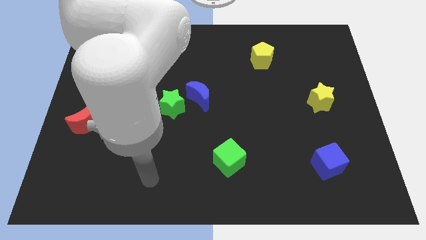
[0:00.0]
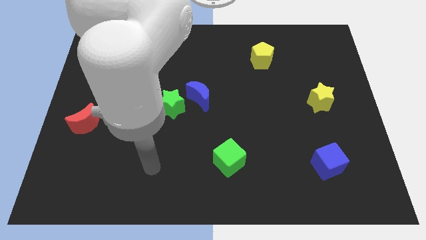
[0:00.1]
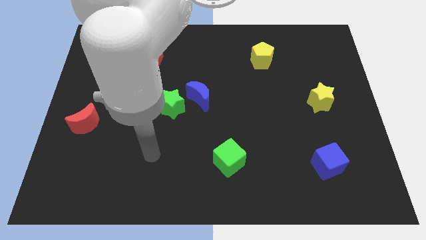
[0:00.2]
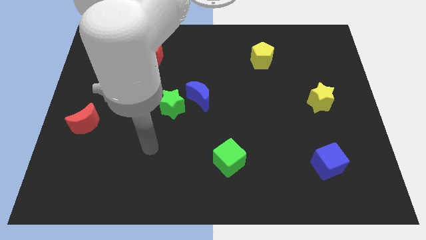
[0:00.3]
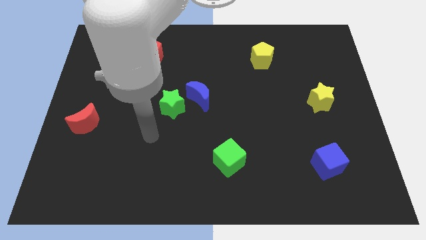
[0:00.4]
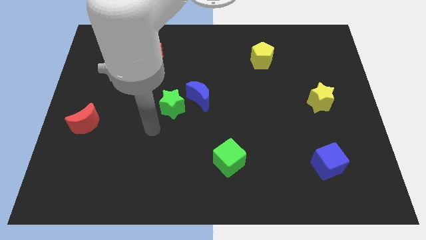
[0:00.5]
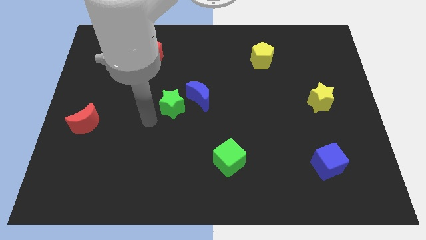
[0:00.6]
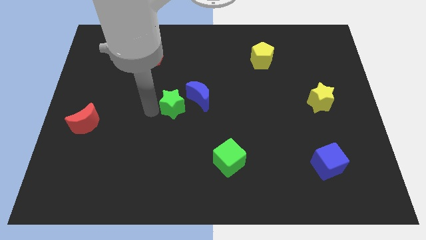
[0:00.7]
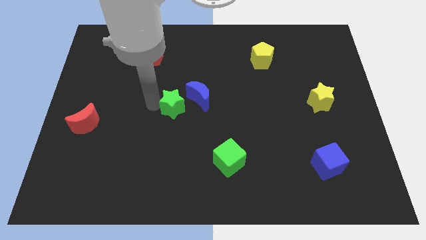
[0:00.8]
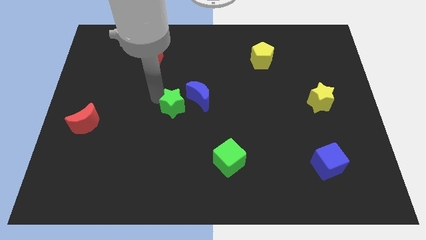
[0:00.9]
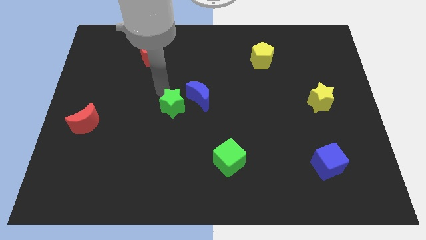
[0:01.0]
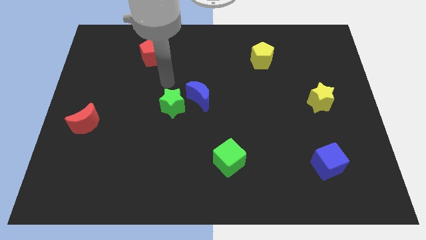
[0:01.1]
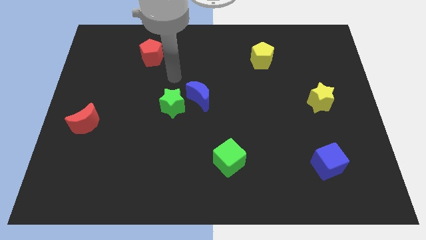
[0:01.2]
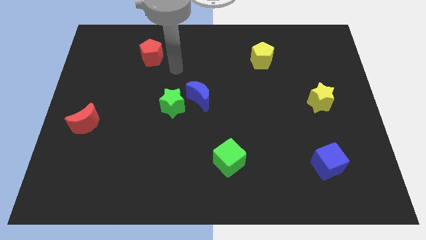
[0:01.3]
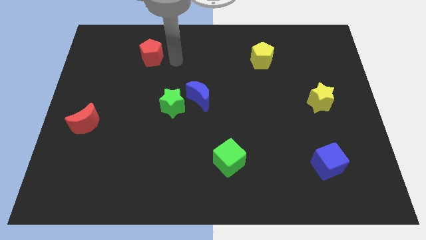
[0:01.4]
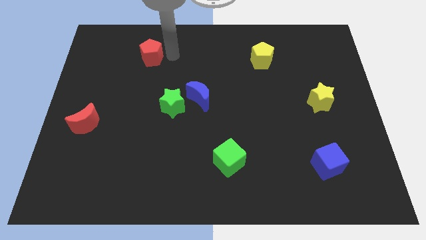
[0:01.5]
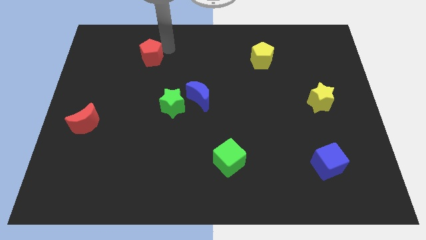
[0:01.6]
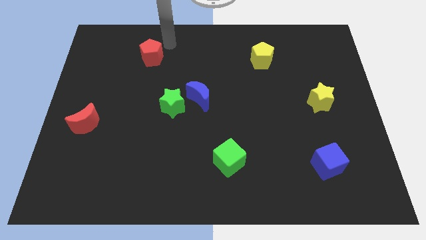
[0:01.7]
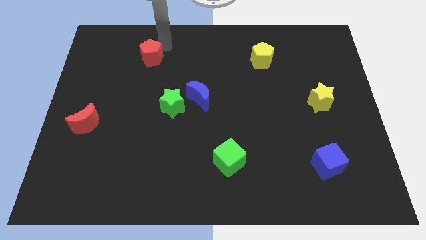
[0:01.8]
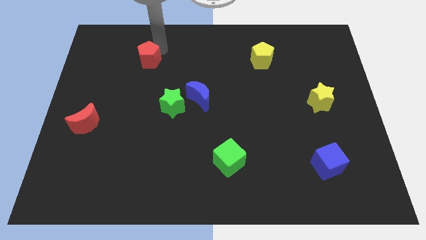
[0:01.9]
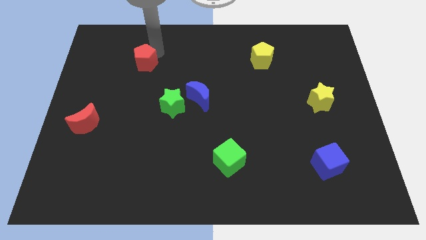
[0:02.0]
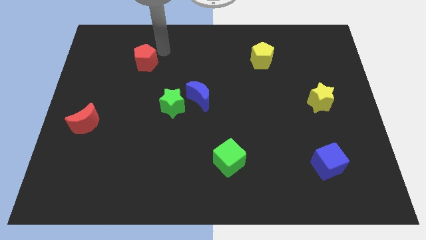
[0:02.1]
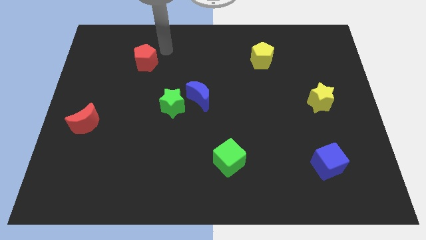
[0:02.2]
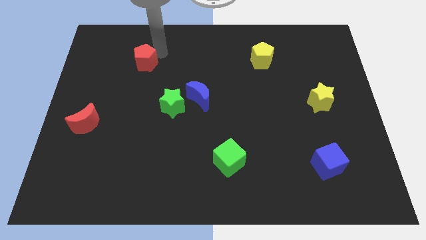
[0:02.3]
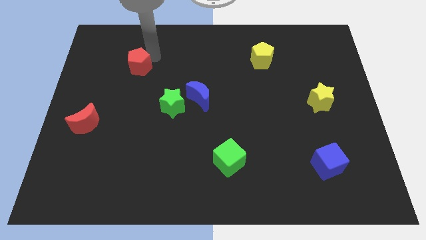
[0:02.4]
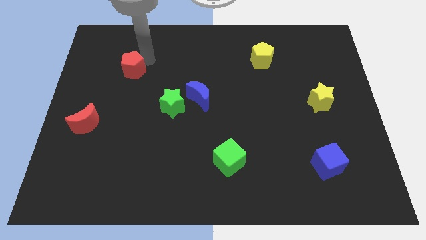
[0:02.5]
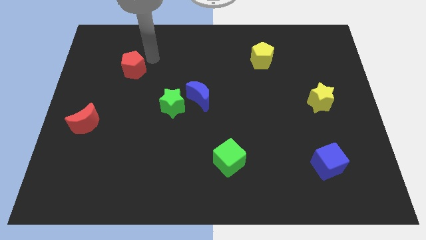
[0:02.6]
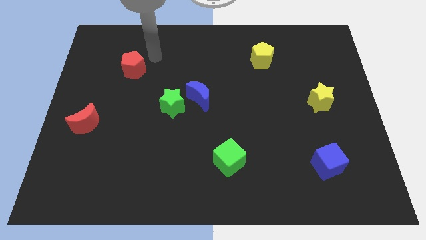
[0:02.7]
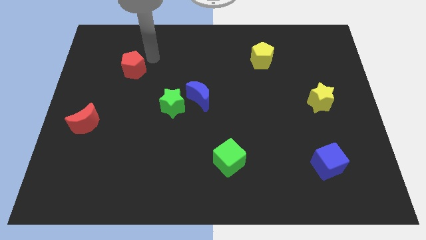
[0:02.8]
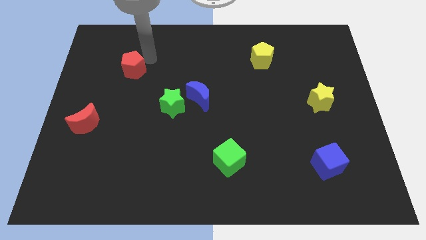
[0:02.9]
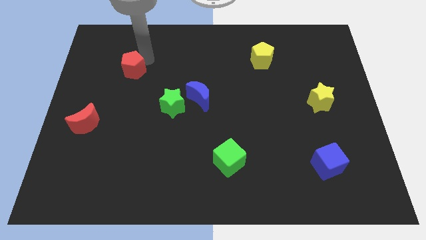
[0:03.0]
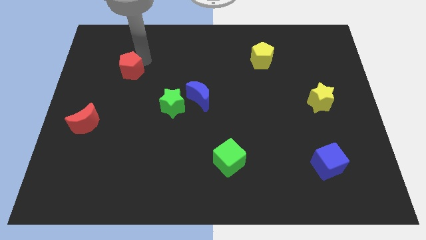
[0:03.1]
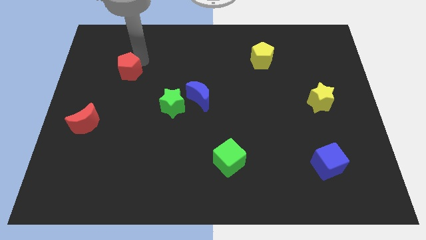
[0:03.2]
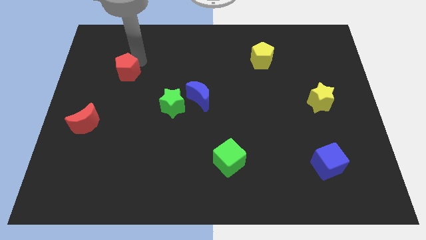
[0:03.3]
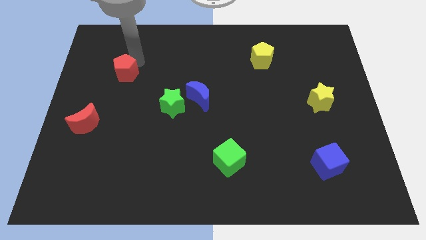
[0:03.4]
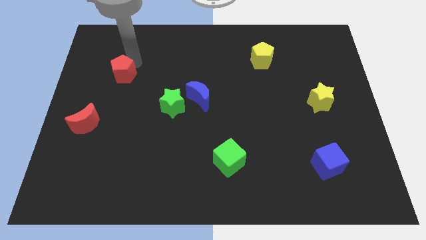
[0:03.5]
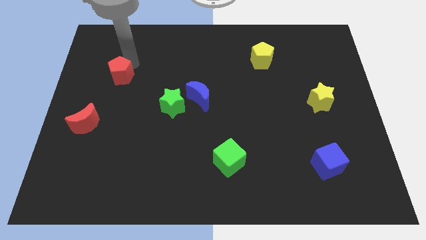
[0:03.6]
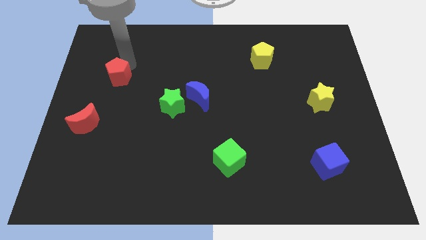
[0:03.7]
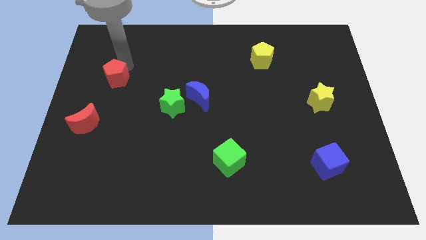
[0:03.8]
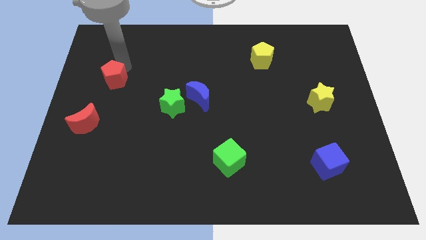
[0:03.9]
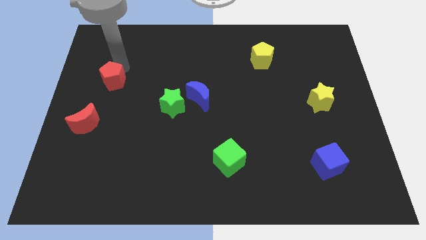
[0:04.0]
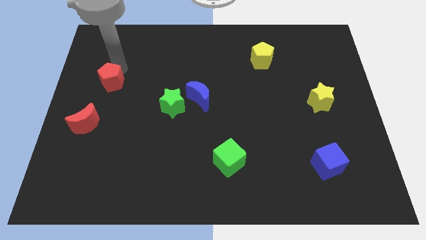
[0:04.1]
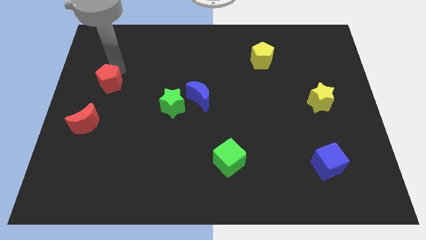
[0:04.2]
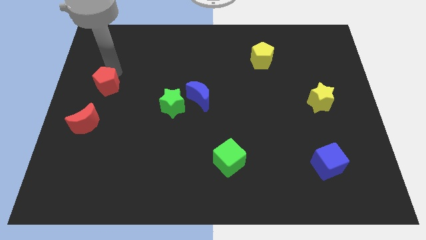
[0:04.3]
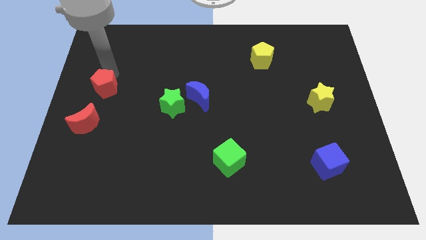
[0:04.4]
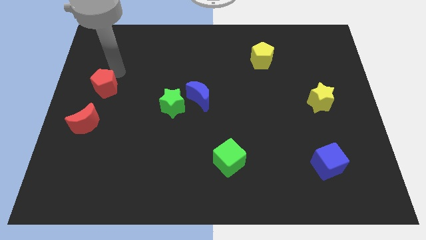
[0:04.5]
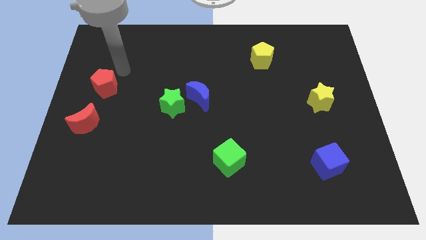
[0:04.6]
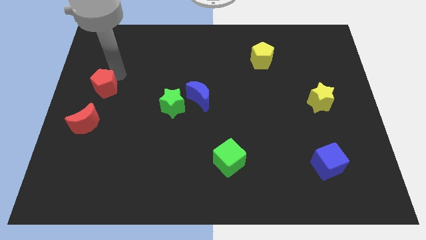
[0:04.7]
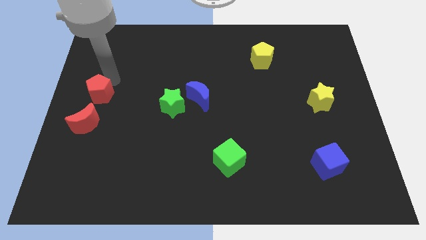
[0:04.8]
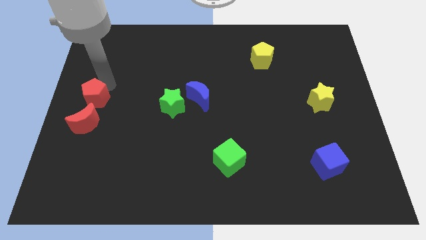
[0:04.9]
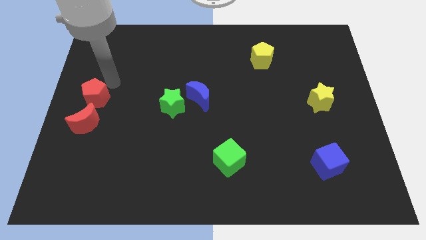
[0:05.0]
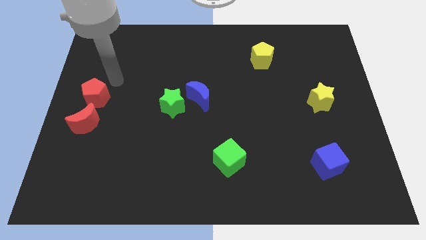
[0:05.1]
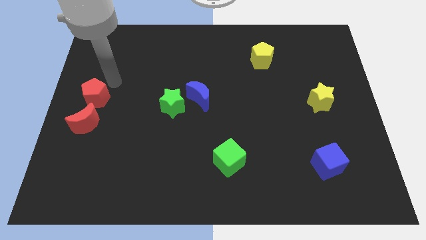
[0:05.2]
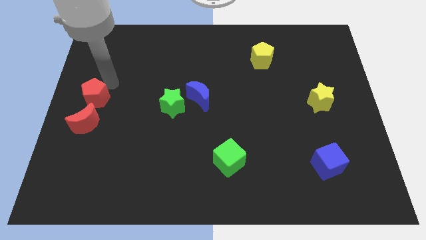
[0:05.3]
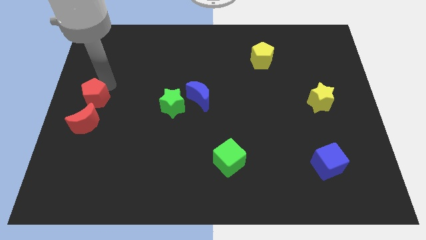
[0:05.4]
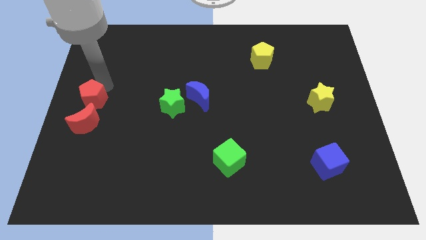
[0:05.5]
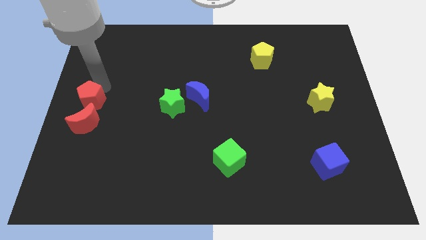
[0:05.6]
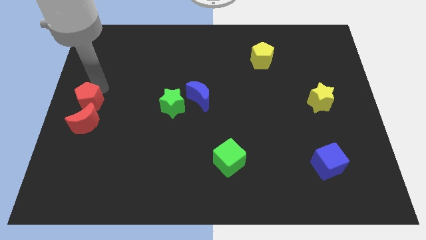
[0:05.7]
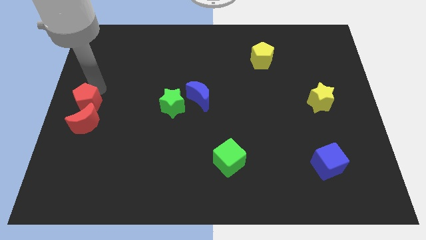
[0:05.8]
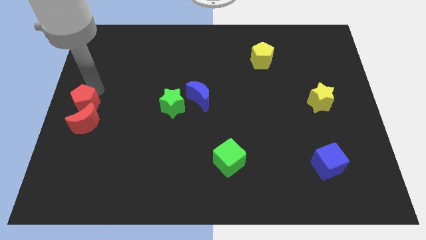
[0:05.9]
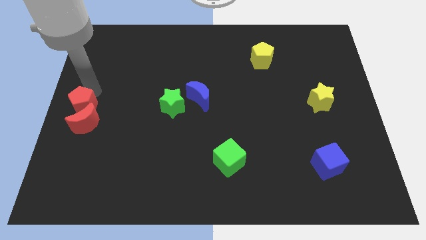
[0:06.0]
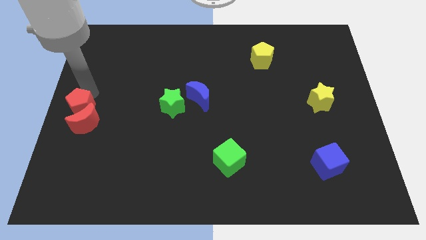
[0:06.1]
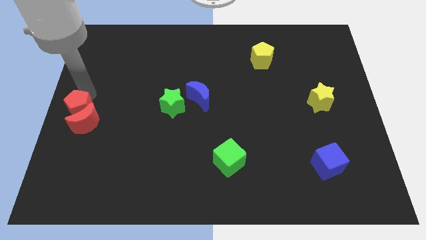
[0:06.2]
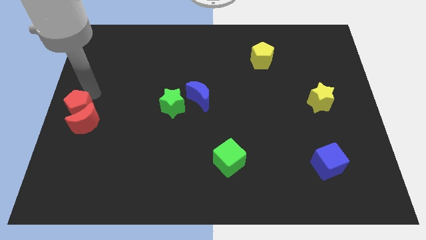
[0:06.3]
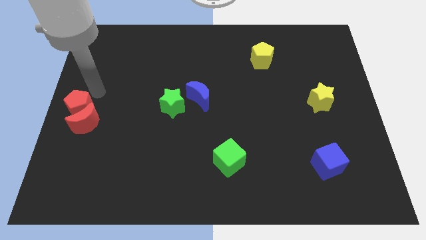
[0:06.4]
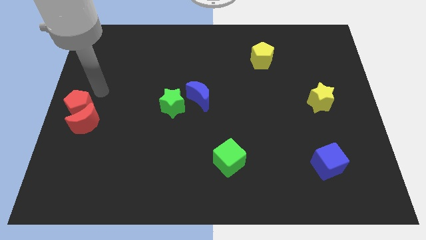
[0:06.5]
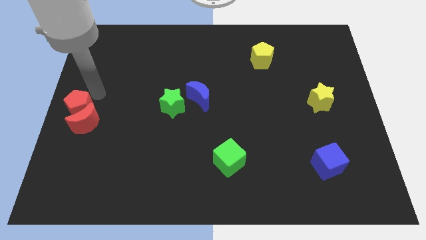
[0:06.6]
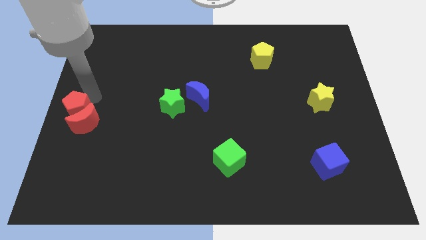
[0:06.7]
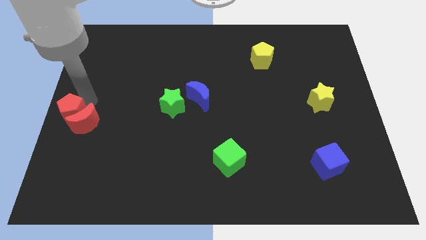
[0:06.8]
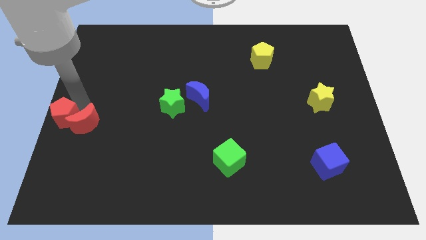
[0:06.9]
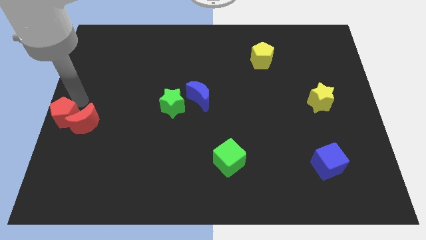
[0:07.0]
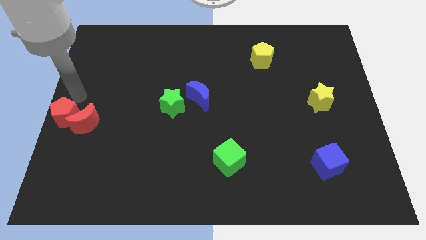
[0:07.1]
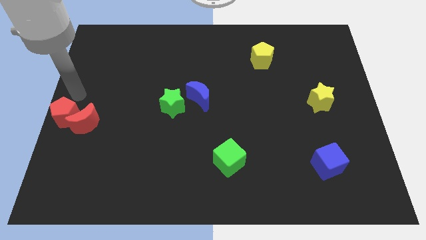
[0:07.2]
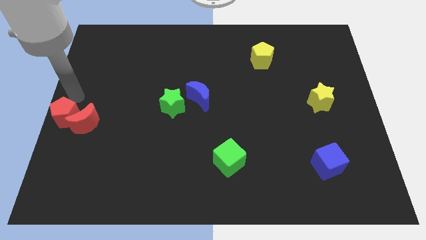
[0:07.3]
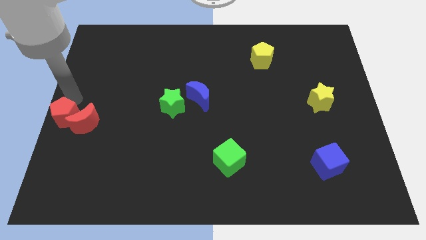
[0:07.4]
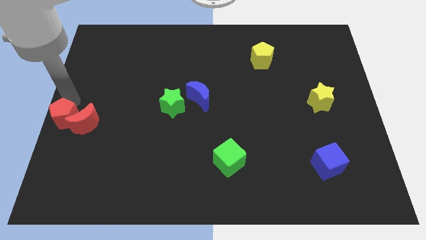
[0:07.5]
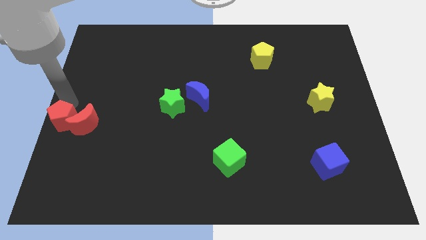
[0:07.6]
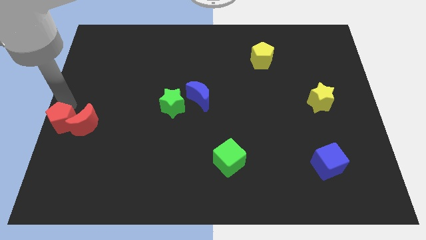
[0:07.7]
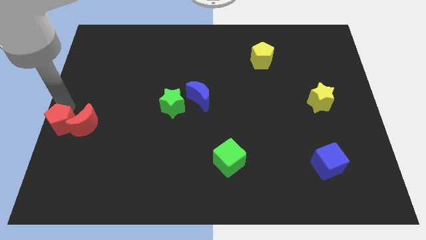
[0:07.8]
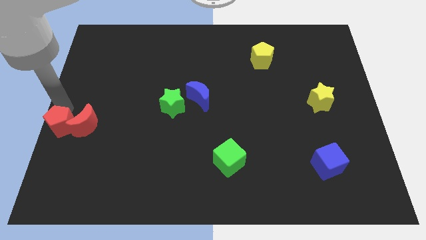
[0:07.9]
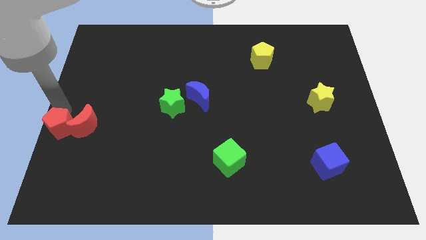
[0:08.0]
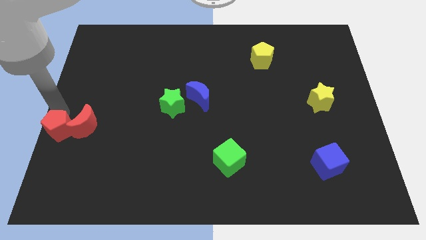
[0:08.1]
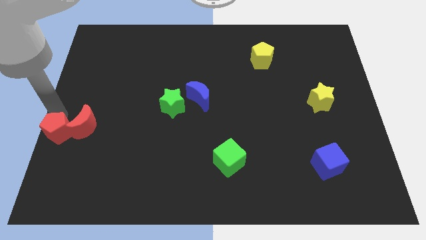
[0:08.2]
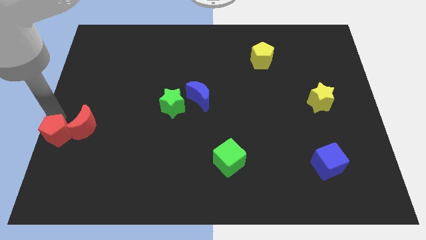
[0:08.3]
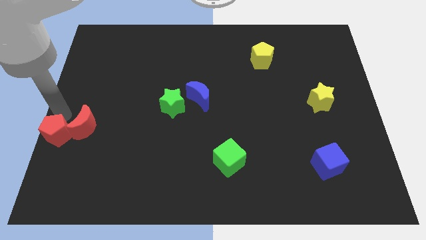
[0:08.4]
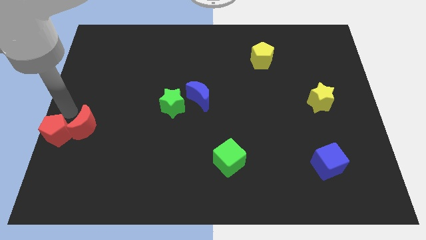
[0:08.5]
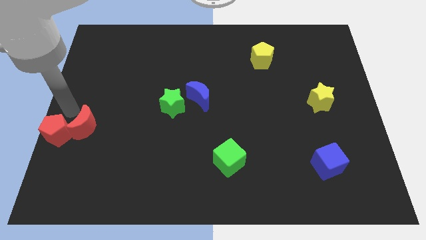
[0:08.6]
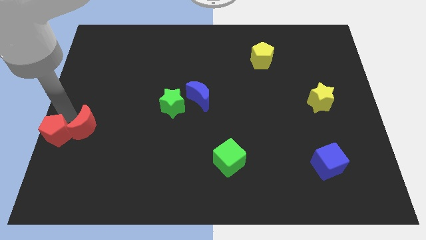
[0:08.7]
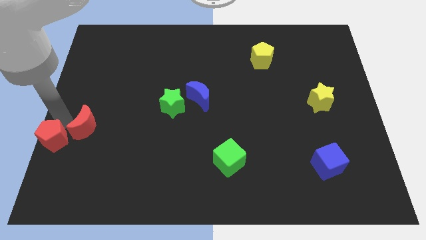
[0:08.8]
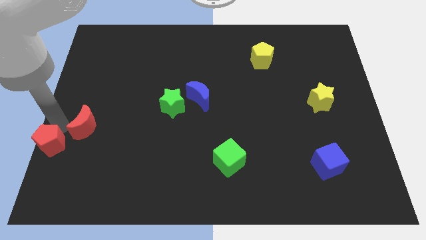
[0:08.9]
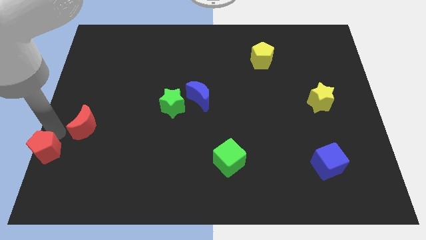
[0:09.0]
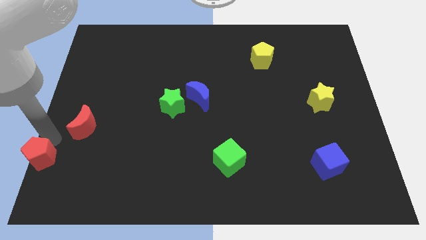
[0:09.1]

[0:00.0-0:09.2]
put the red pentagon to the bottom left
